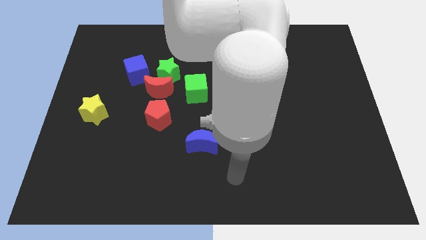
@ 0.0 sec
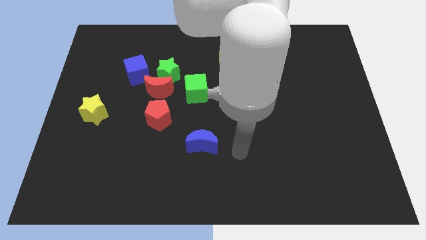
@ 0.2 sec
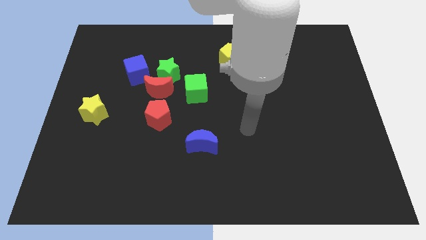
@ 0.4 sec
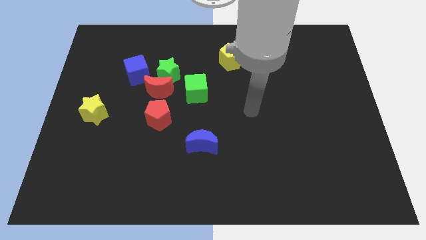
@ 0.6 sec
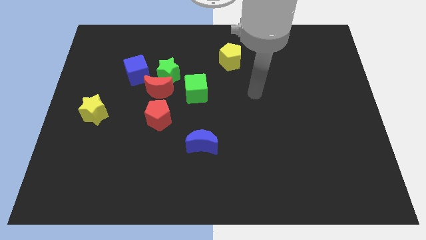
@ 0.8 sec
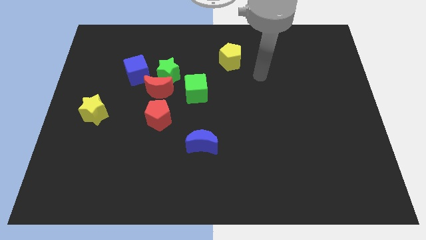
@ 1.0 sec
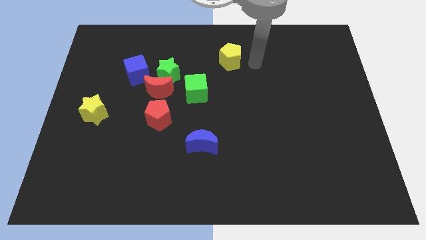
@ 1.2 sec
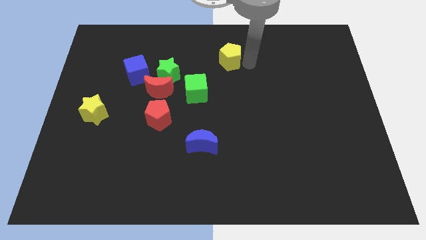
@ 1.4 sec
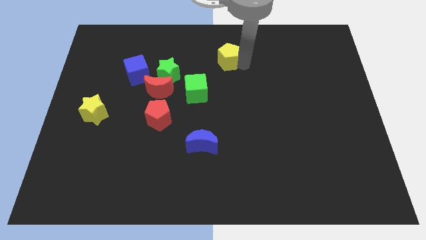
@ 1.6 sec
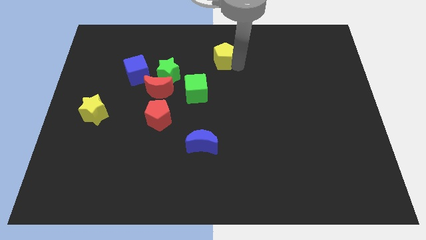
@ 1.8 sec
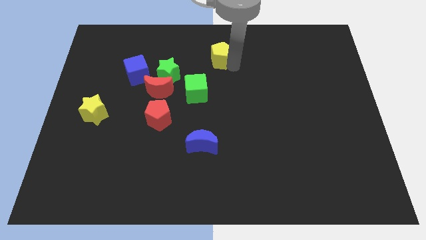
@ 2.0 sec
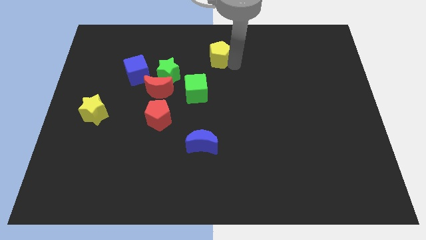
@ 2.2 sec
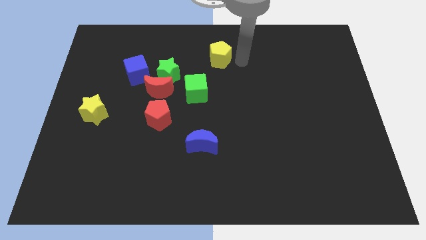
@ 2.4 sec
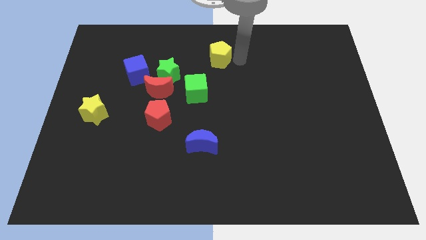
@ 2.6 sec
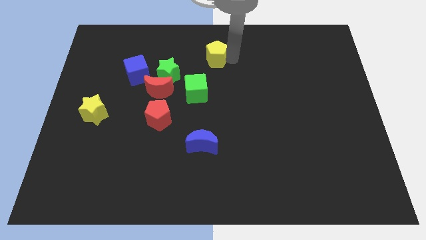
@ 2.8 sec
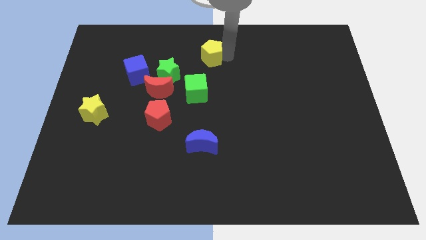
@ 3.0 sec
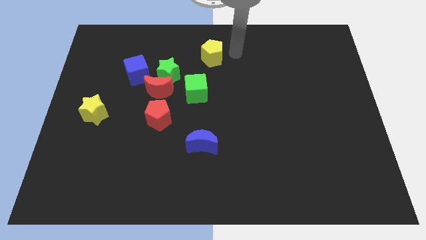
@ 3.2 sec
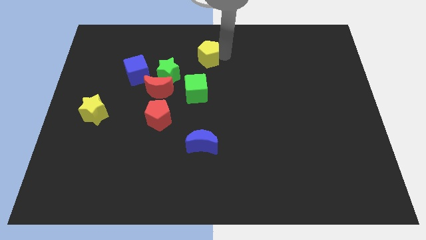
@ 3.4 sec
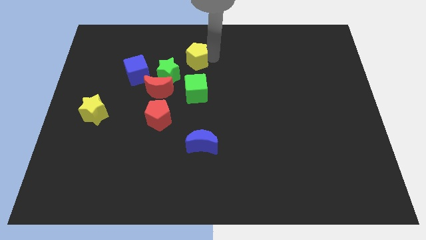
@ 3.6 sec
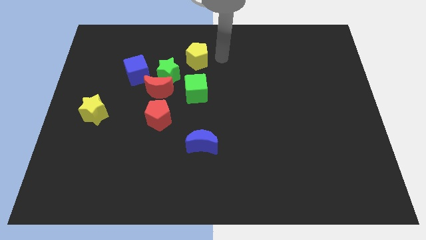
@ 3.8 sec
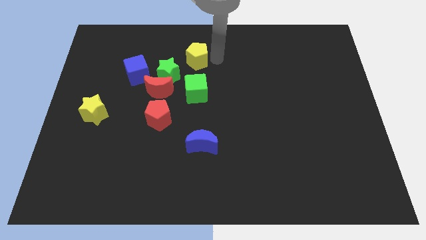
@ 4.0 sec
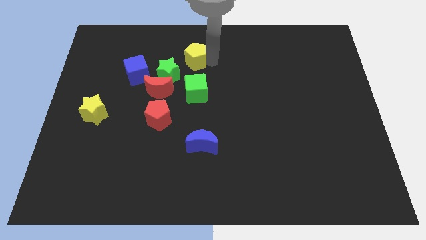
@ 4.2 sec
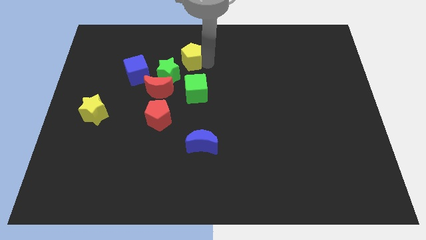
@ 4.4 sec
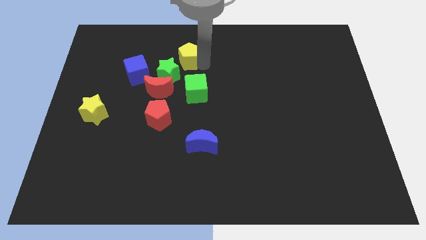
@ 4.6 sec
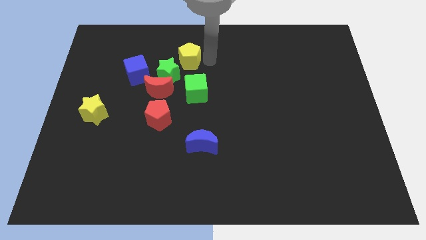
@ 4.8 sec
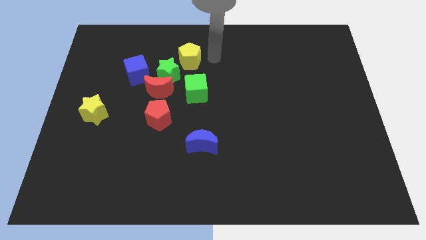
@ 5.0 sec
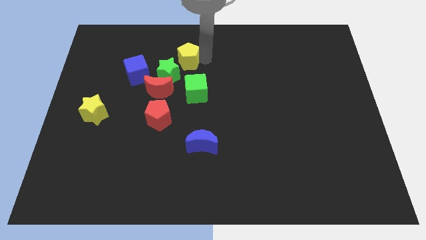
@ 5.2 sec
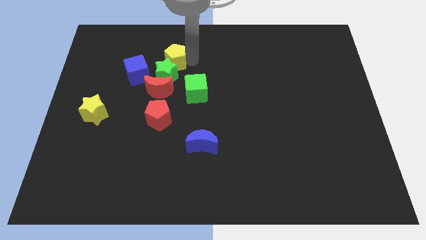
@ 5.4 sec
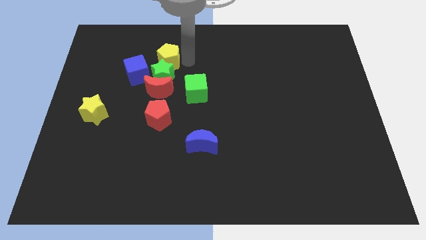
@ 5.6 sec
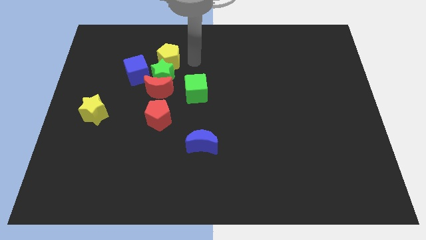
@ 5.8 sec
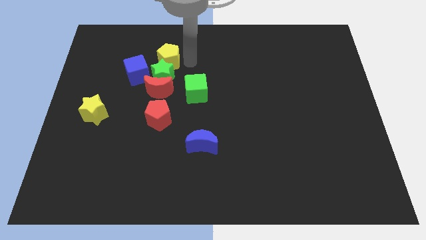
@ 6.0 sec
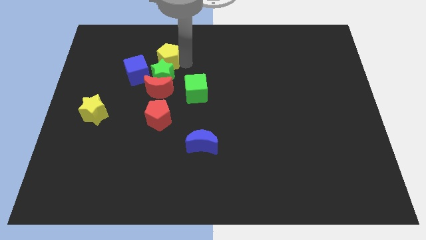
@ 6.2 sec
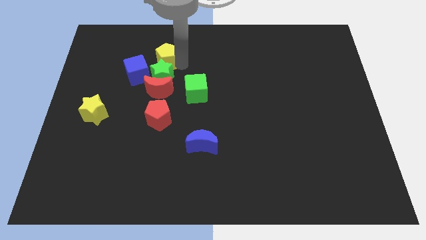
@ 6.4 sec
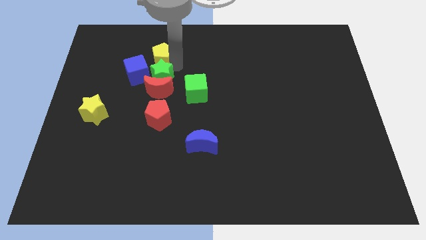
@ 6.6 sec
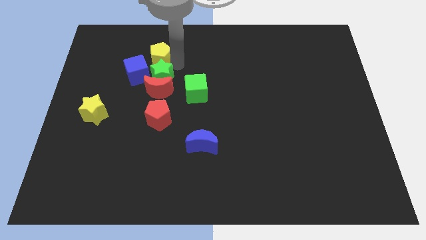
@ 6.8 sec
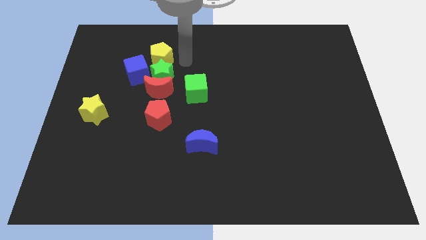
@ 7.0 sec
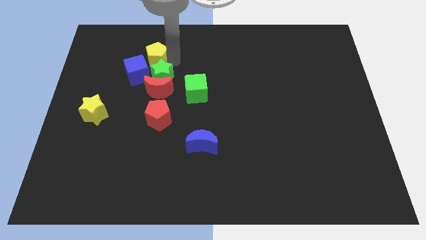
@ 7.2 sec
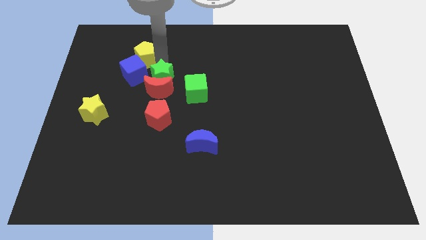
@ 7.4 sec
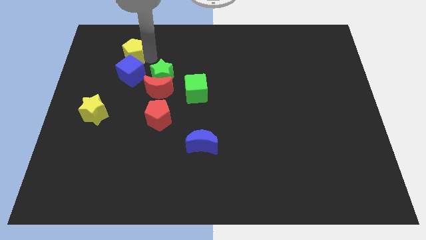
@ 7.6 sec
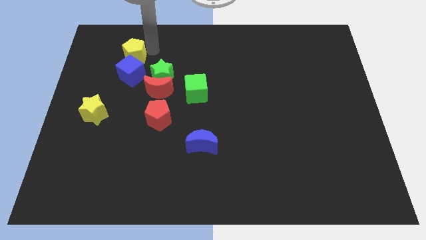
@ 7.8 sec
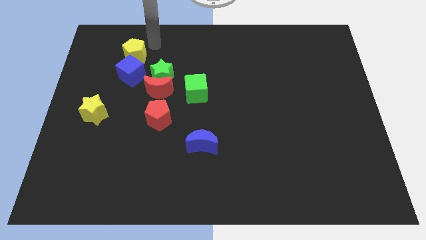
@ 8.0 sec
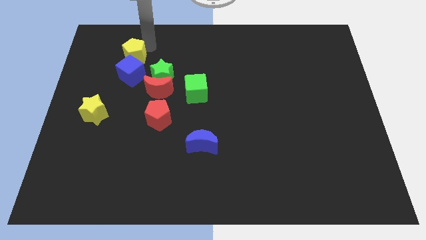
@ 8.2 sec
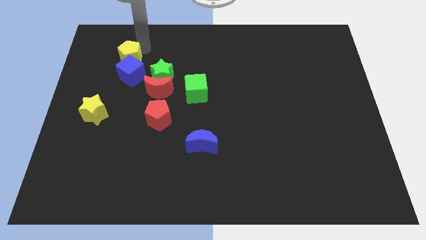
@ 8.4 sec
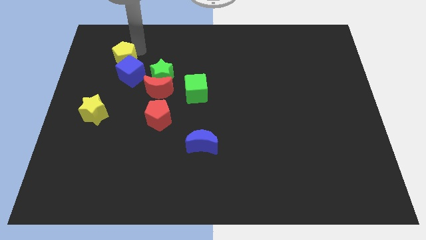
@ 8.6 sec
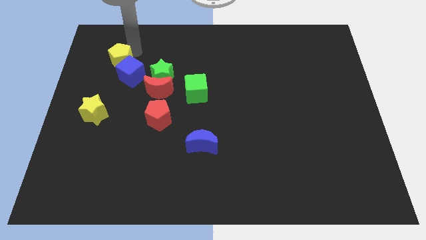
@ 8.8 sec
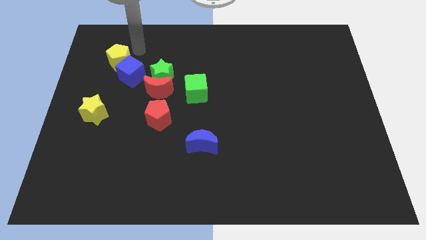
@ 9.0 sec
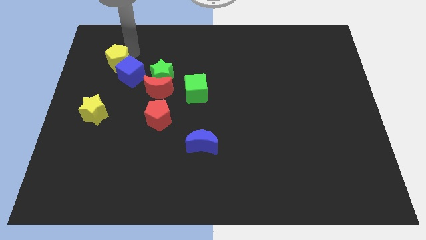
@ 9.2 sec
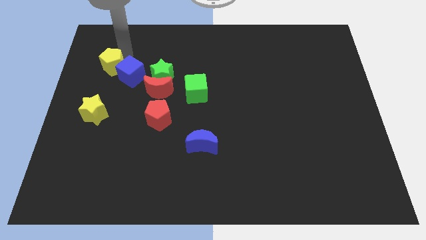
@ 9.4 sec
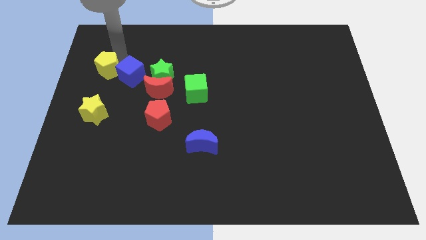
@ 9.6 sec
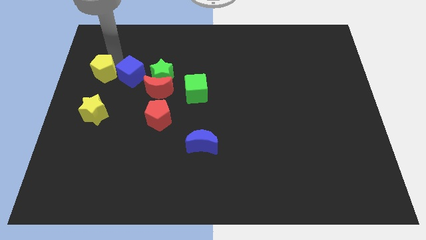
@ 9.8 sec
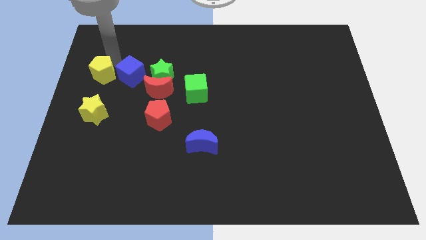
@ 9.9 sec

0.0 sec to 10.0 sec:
put the yellow pentagon to the center left

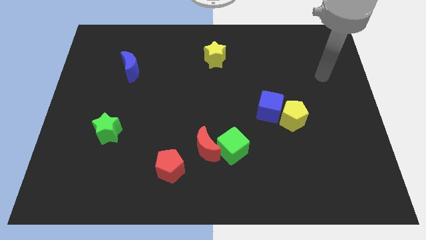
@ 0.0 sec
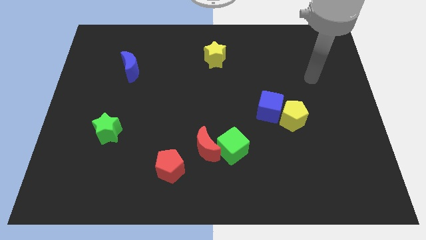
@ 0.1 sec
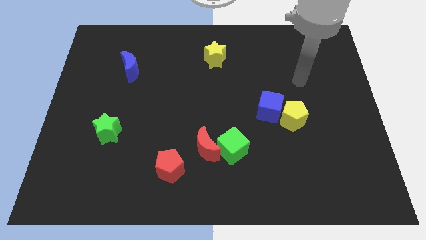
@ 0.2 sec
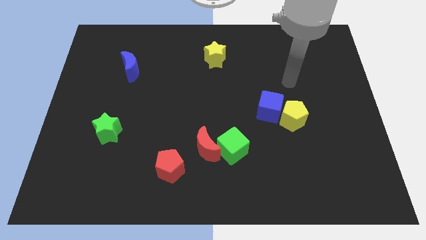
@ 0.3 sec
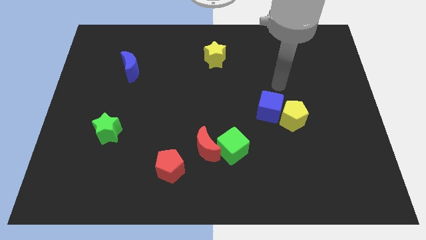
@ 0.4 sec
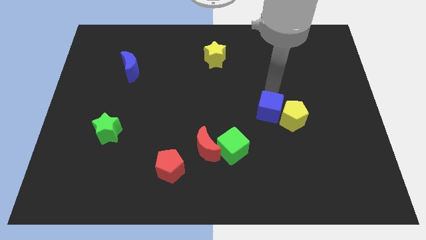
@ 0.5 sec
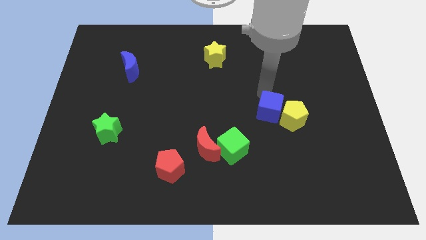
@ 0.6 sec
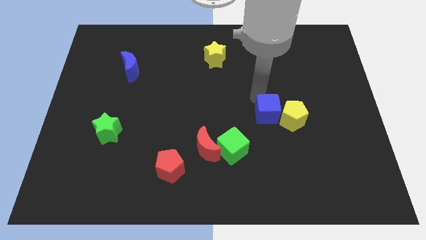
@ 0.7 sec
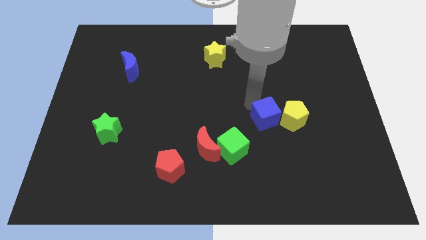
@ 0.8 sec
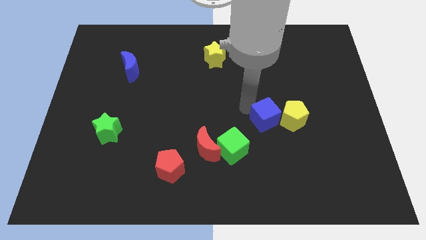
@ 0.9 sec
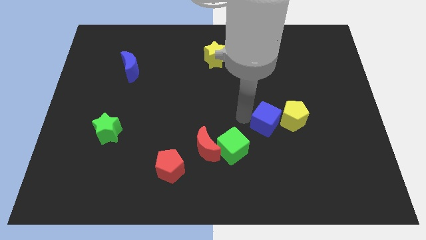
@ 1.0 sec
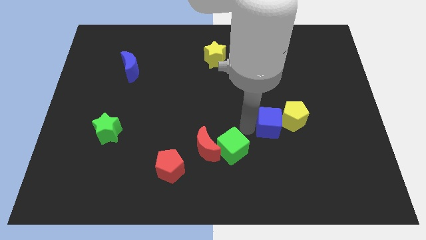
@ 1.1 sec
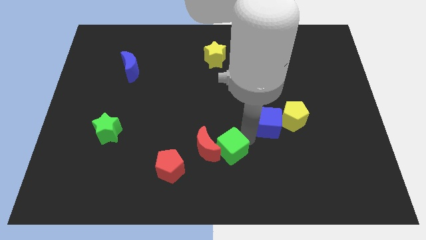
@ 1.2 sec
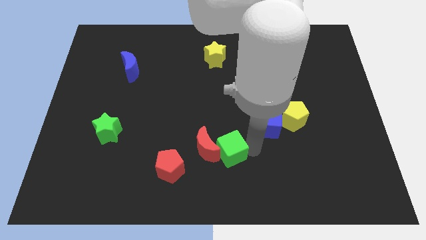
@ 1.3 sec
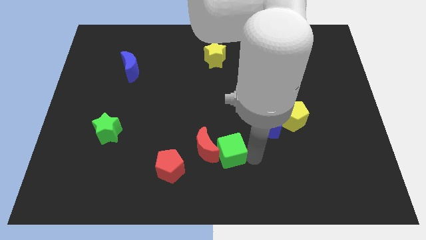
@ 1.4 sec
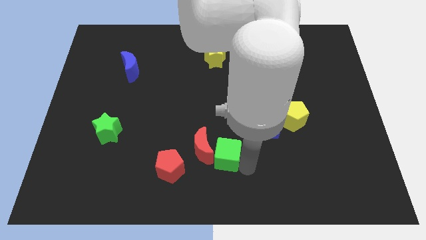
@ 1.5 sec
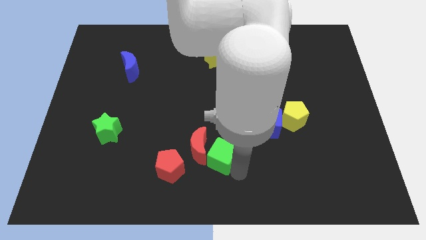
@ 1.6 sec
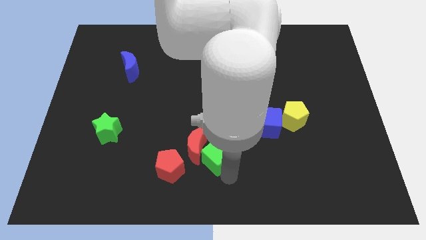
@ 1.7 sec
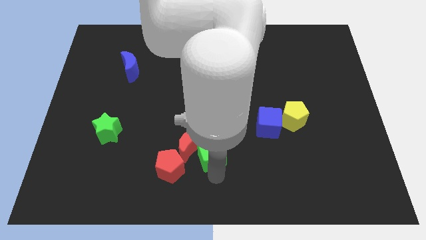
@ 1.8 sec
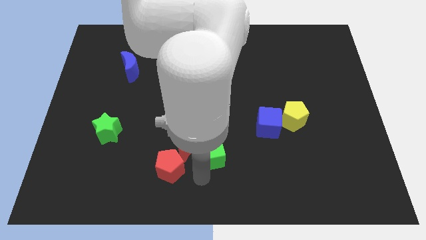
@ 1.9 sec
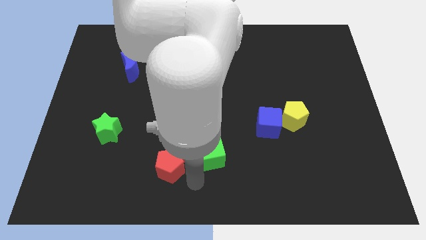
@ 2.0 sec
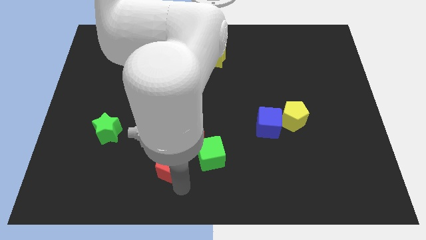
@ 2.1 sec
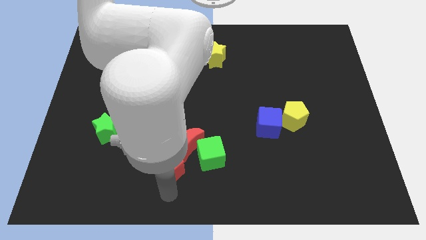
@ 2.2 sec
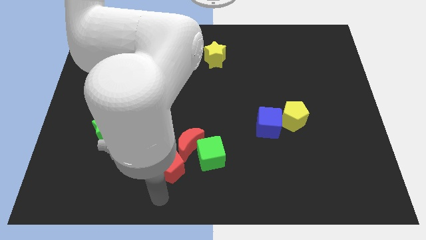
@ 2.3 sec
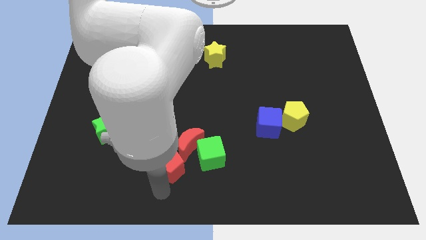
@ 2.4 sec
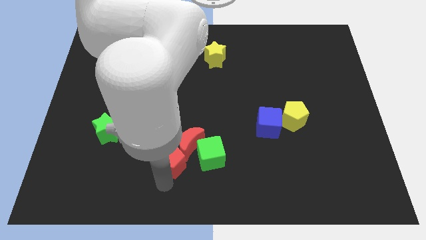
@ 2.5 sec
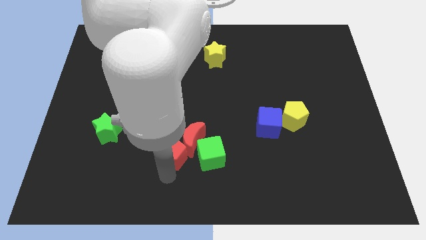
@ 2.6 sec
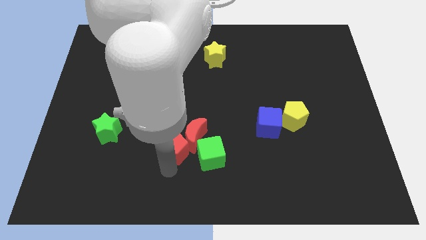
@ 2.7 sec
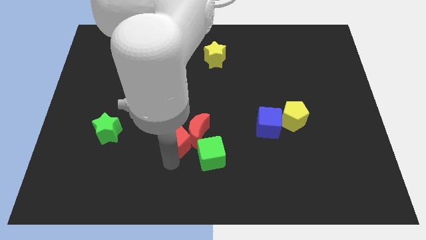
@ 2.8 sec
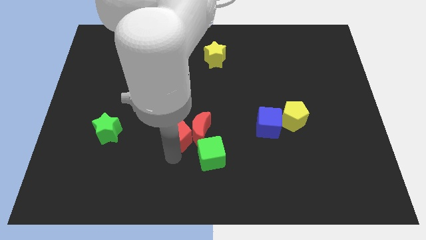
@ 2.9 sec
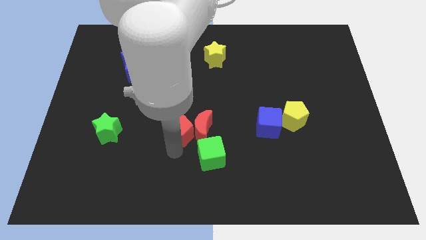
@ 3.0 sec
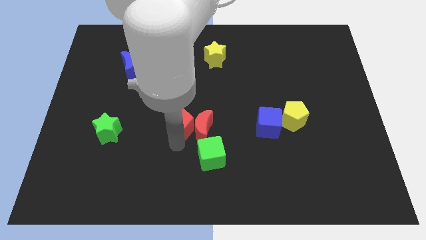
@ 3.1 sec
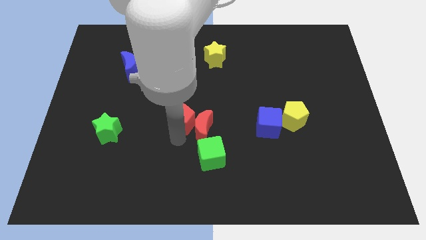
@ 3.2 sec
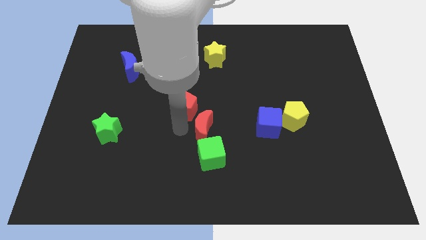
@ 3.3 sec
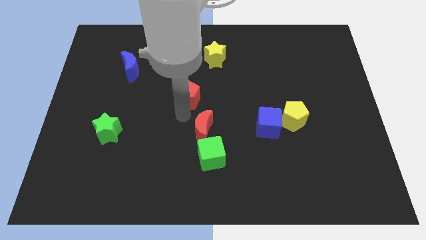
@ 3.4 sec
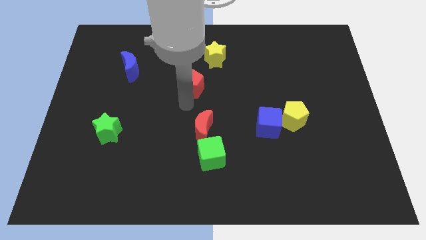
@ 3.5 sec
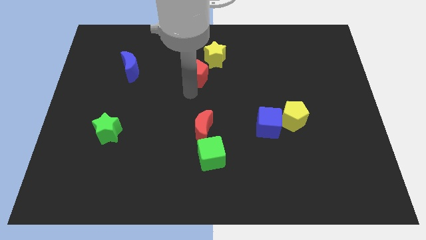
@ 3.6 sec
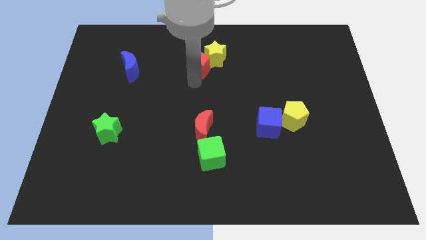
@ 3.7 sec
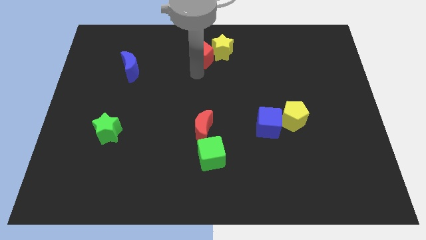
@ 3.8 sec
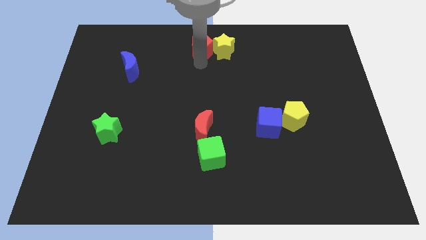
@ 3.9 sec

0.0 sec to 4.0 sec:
put the red pentagon to the towards your base
